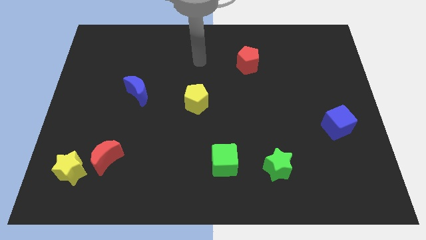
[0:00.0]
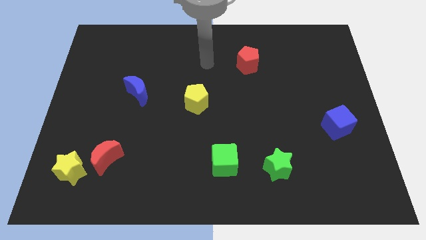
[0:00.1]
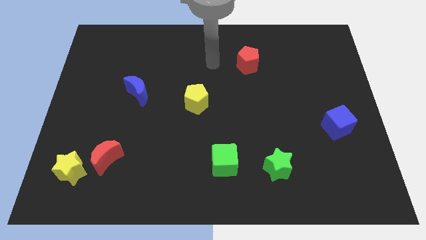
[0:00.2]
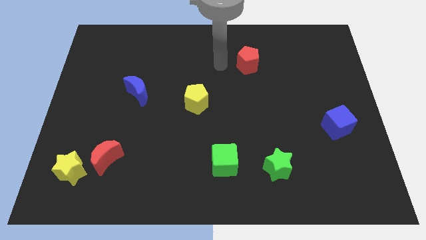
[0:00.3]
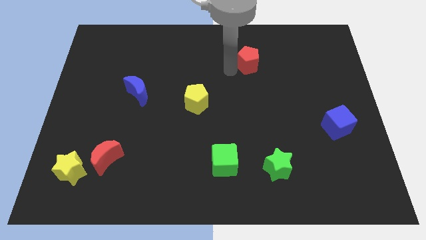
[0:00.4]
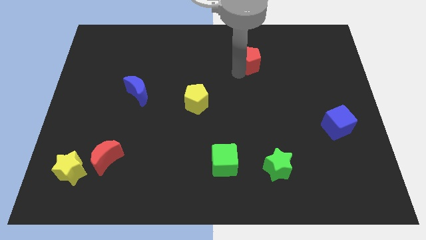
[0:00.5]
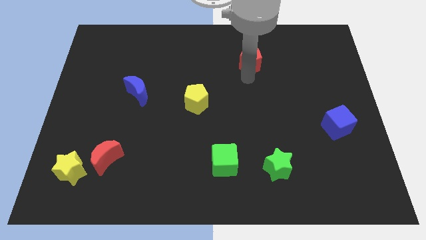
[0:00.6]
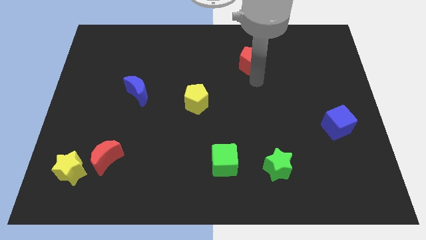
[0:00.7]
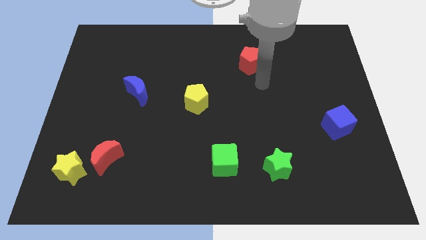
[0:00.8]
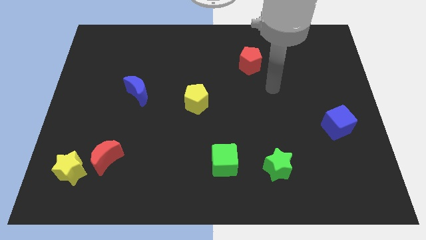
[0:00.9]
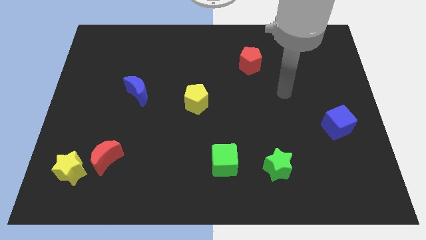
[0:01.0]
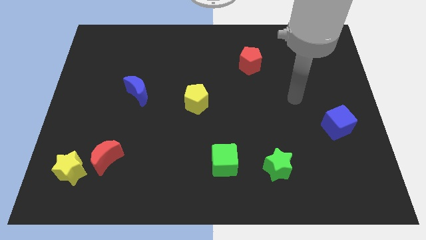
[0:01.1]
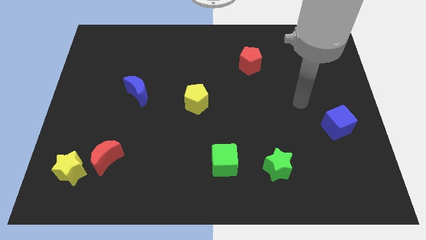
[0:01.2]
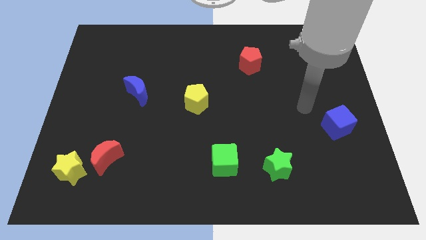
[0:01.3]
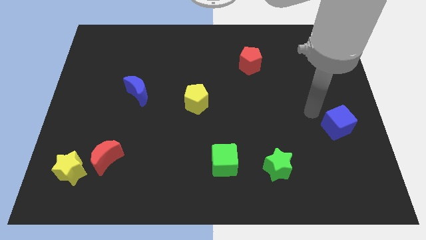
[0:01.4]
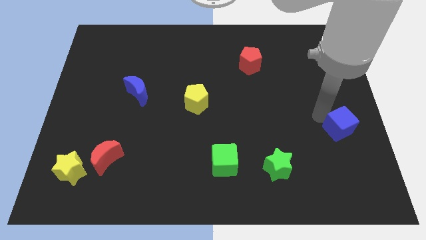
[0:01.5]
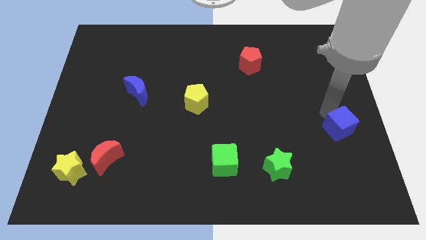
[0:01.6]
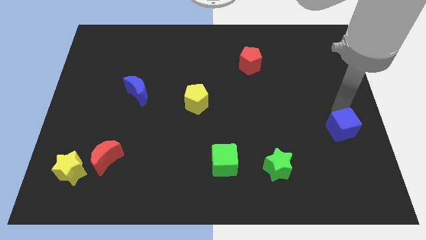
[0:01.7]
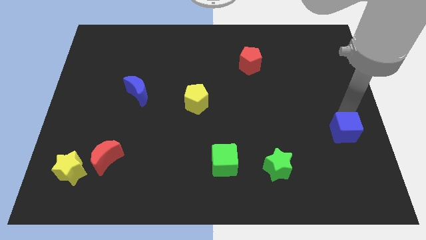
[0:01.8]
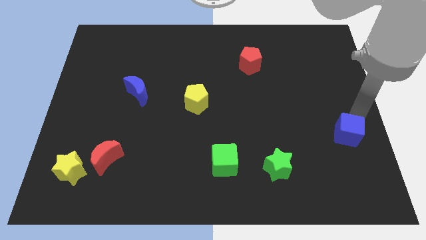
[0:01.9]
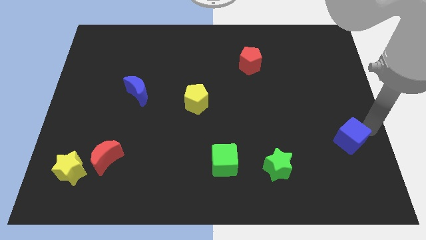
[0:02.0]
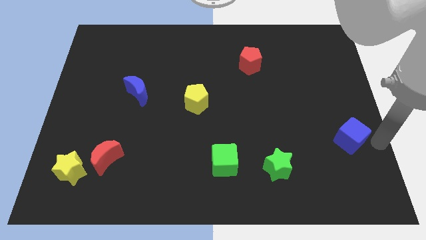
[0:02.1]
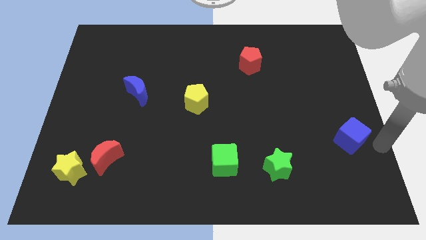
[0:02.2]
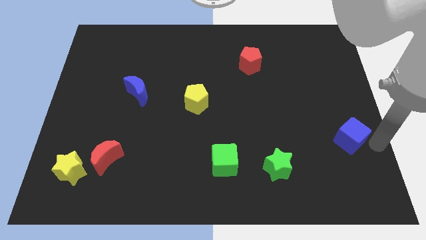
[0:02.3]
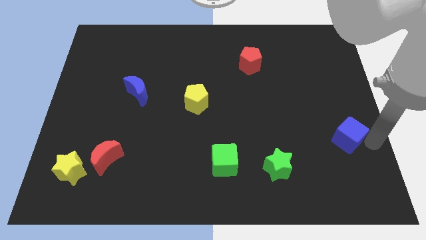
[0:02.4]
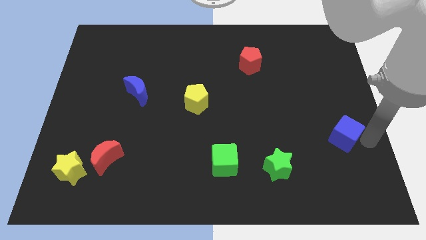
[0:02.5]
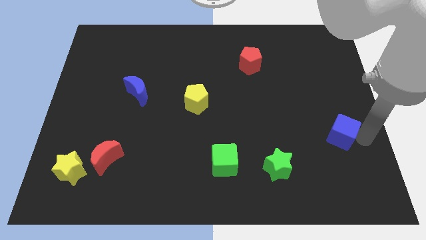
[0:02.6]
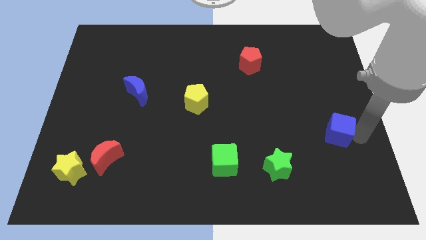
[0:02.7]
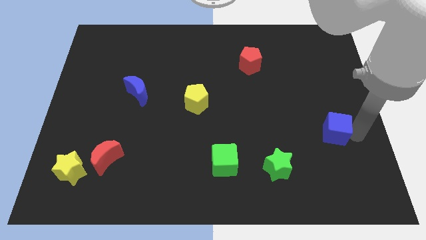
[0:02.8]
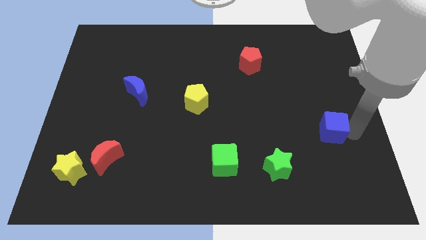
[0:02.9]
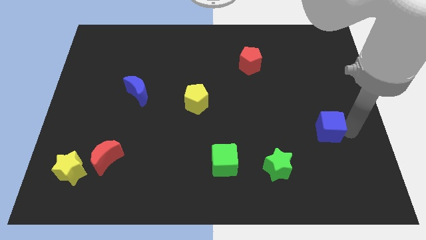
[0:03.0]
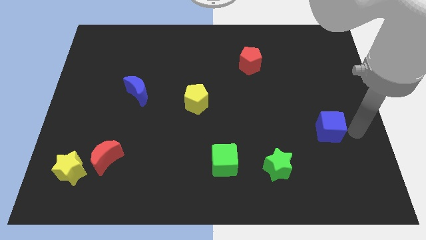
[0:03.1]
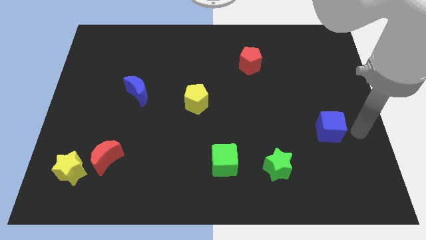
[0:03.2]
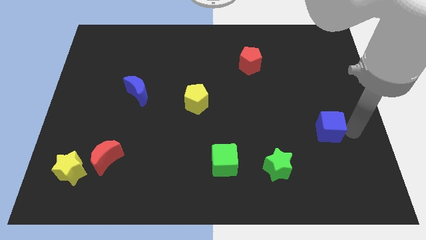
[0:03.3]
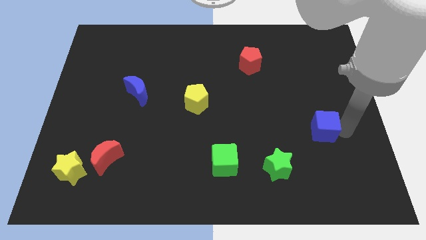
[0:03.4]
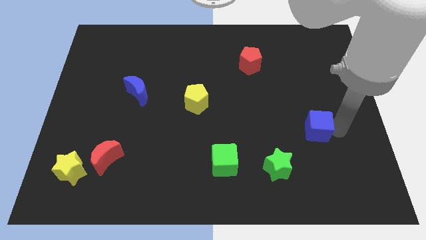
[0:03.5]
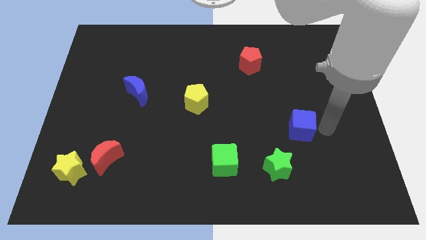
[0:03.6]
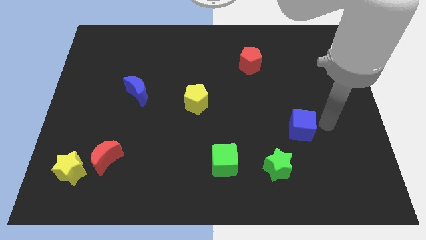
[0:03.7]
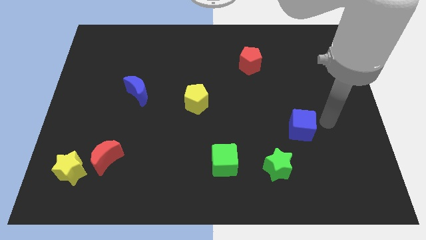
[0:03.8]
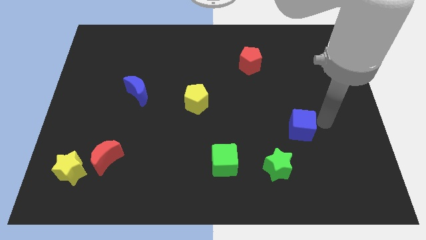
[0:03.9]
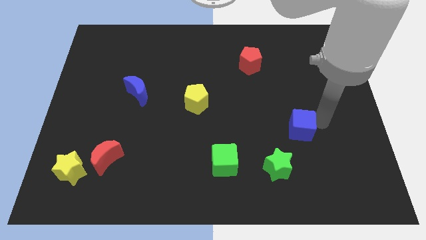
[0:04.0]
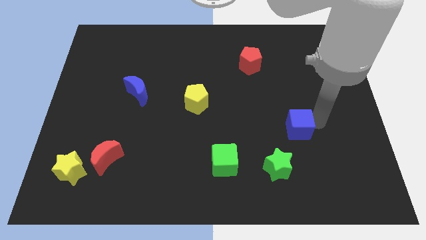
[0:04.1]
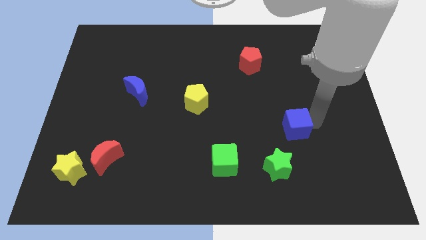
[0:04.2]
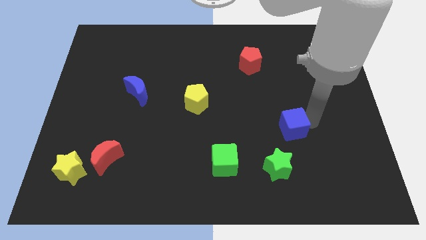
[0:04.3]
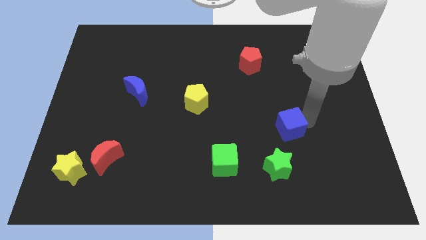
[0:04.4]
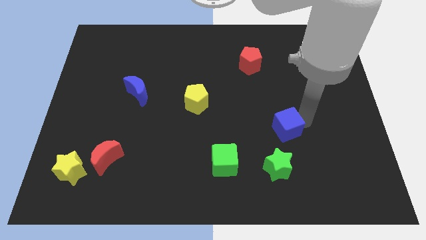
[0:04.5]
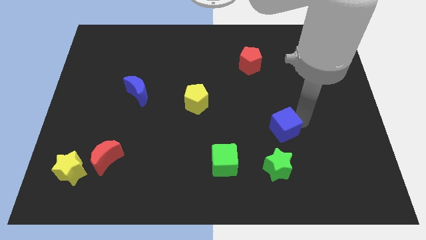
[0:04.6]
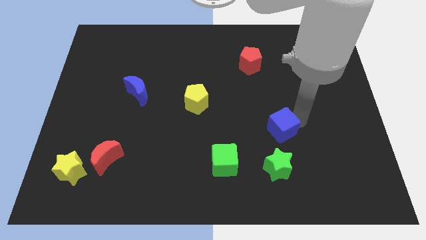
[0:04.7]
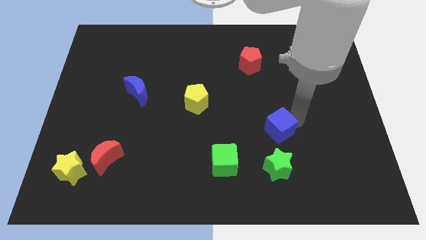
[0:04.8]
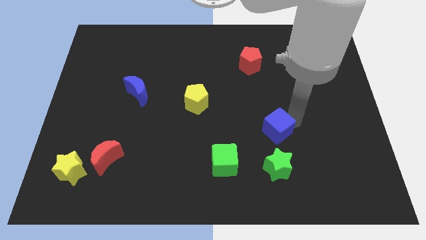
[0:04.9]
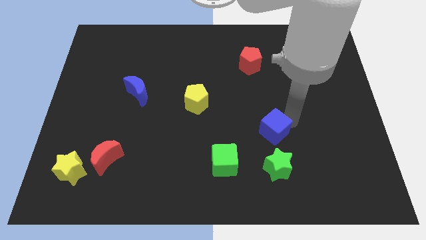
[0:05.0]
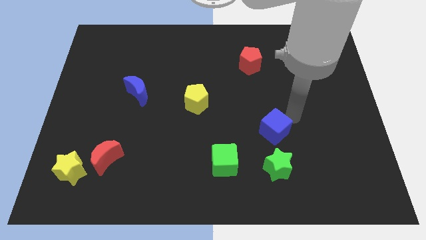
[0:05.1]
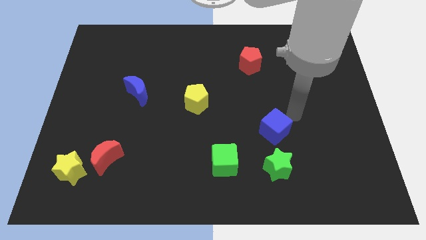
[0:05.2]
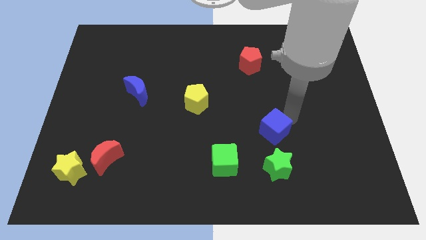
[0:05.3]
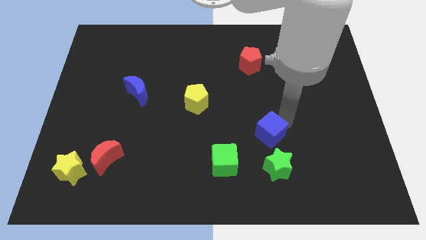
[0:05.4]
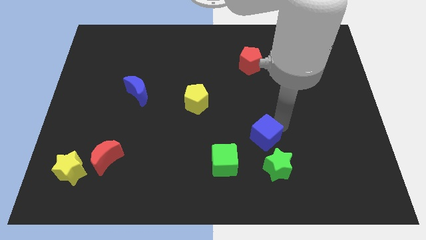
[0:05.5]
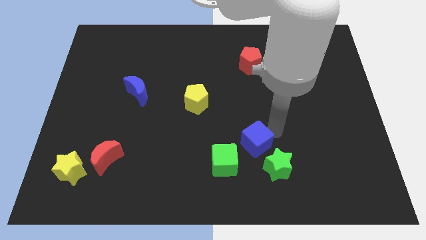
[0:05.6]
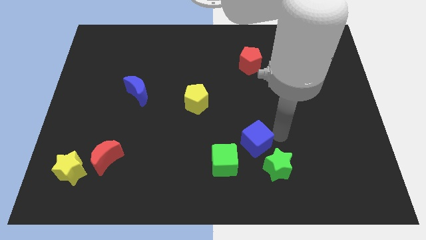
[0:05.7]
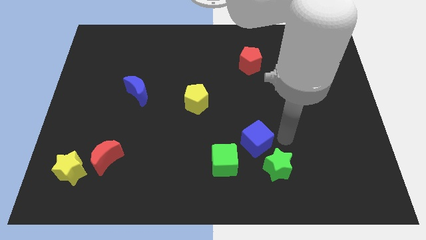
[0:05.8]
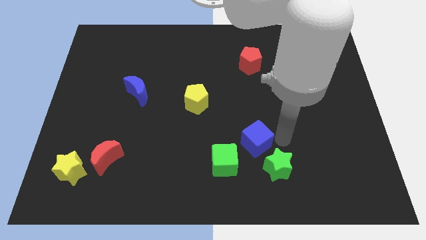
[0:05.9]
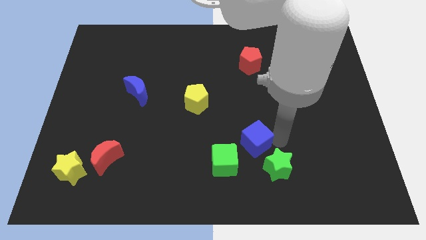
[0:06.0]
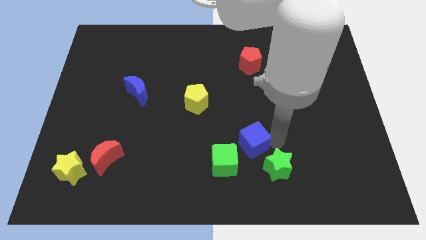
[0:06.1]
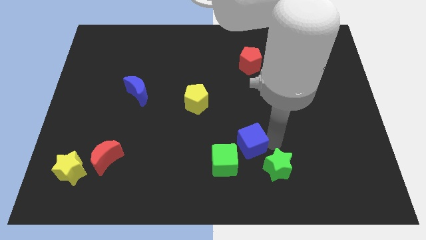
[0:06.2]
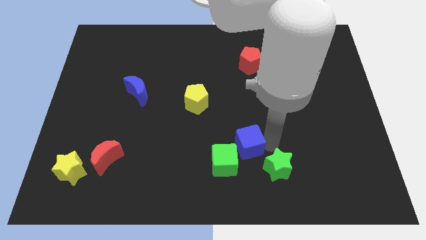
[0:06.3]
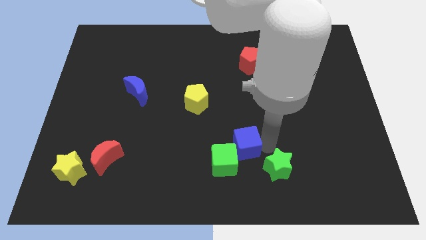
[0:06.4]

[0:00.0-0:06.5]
push the blue cube left of the green star

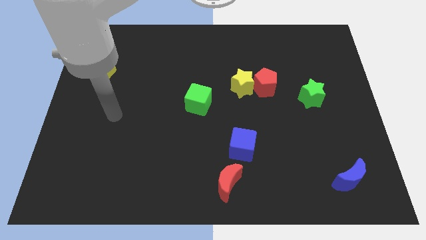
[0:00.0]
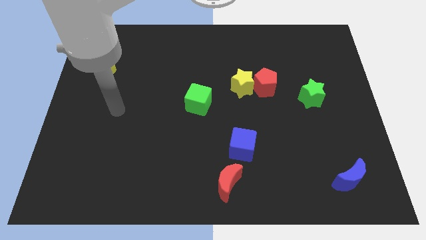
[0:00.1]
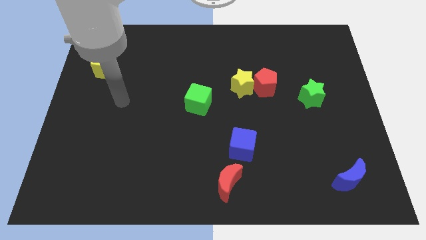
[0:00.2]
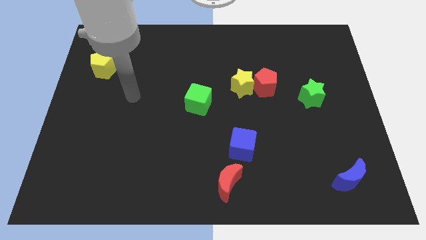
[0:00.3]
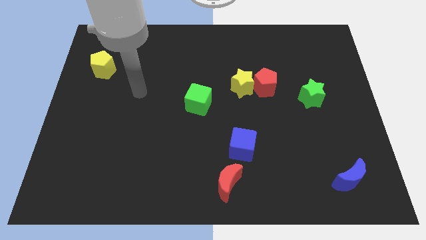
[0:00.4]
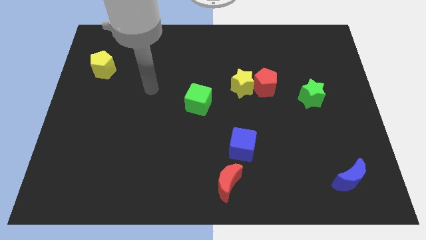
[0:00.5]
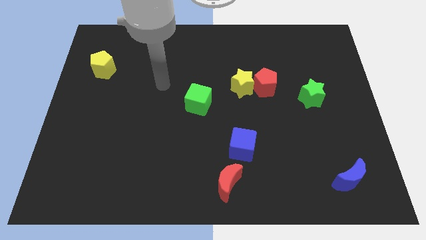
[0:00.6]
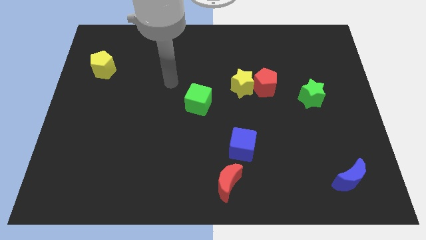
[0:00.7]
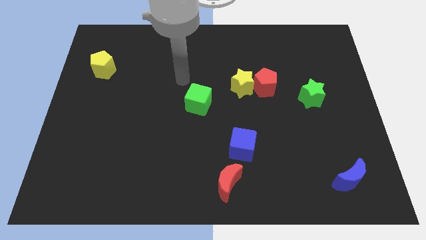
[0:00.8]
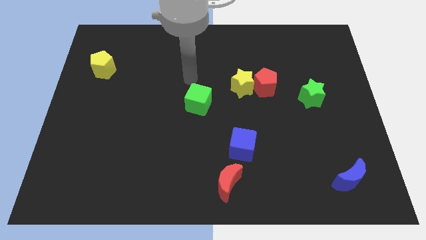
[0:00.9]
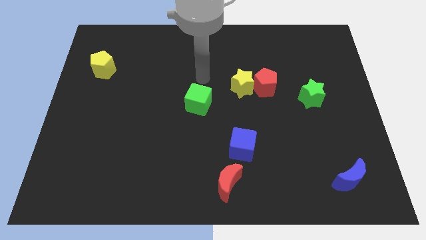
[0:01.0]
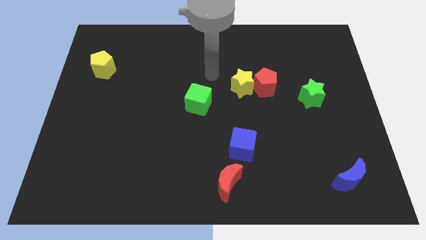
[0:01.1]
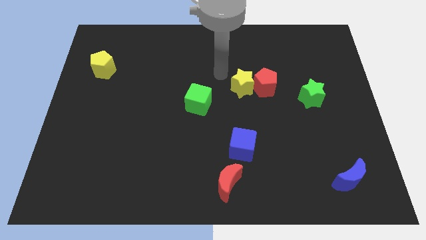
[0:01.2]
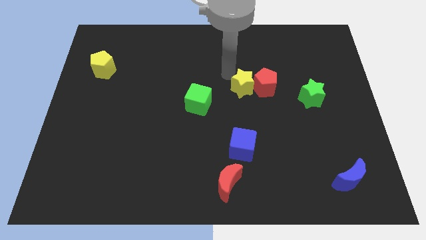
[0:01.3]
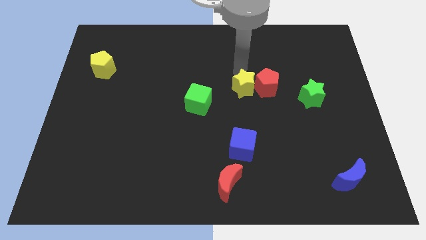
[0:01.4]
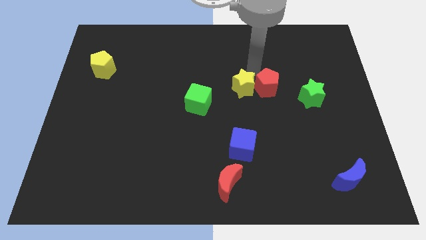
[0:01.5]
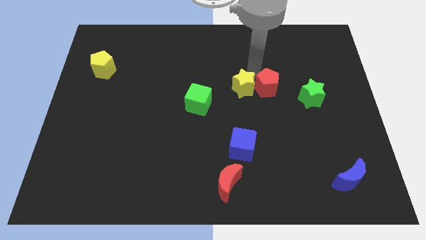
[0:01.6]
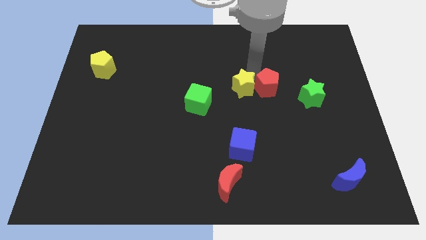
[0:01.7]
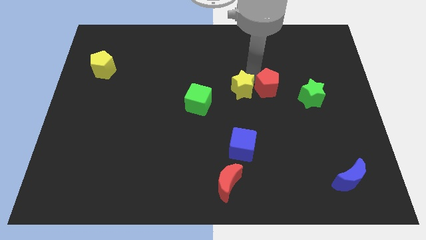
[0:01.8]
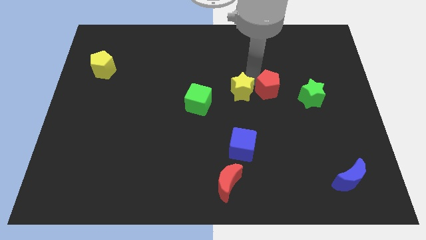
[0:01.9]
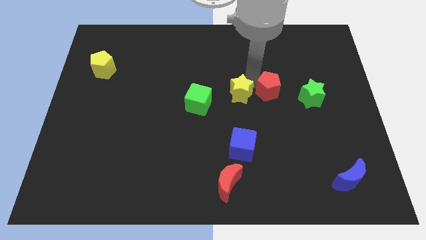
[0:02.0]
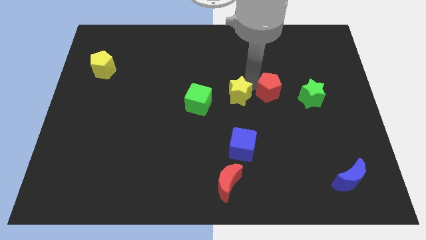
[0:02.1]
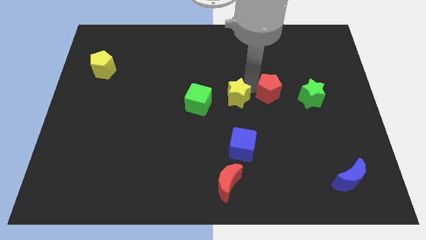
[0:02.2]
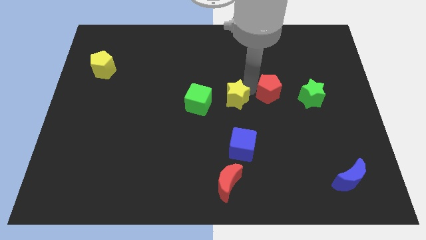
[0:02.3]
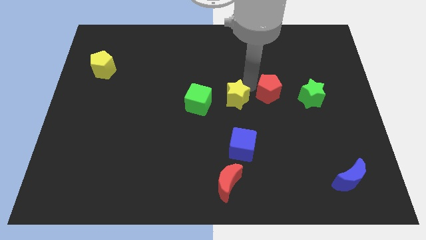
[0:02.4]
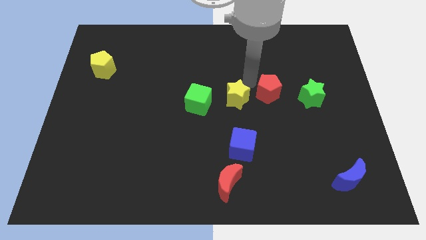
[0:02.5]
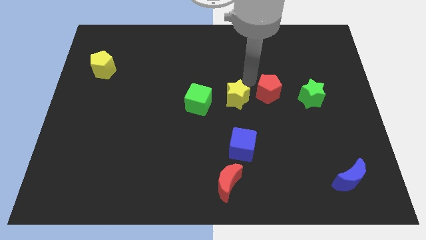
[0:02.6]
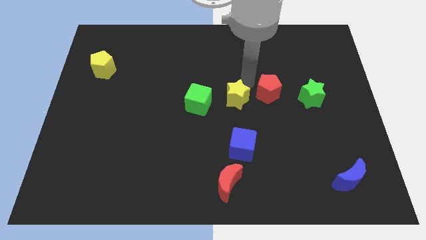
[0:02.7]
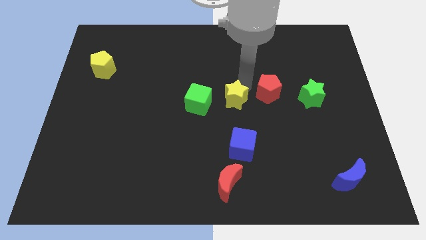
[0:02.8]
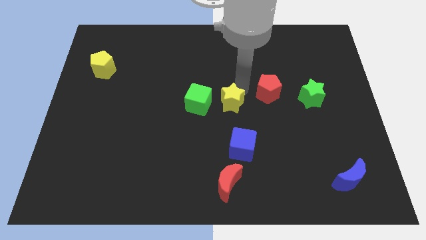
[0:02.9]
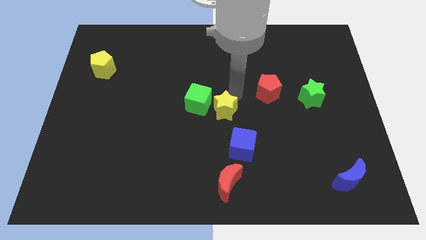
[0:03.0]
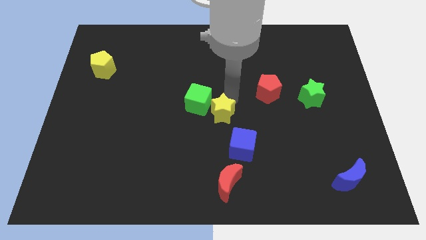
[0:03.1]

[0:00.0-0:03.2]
slide the yellow star to the top left side of the blue cube
